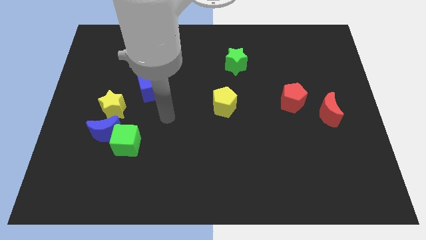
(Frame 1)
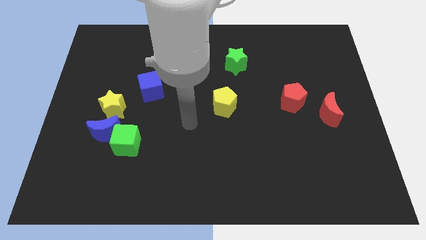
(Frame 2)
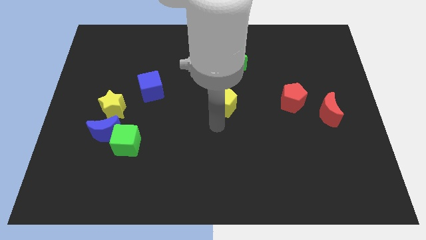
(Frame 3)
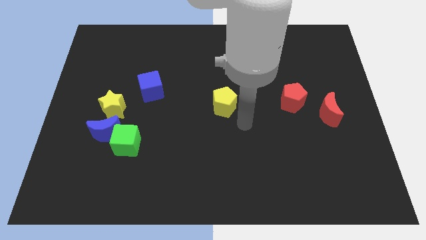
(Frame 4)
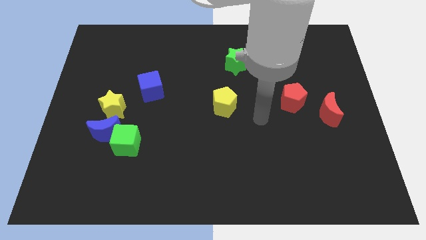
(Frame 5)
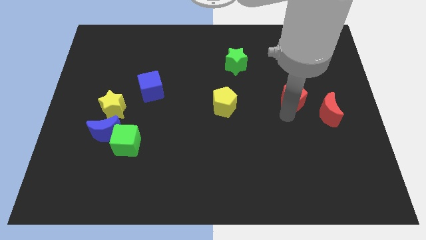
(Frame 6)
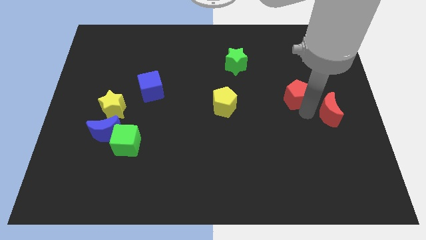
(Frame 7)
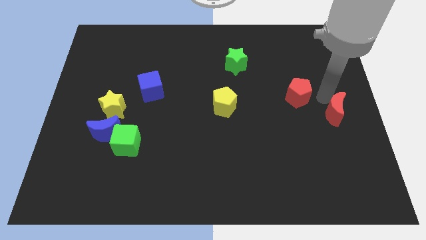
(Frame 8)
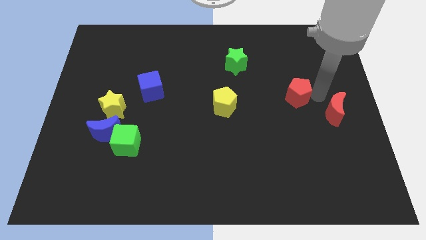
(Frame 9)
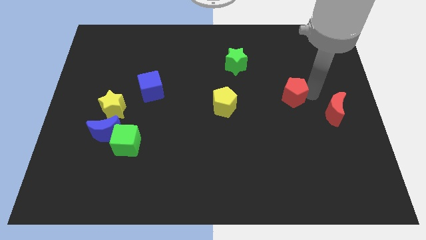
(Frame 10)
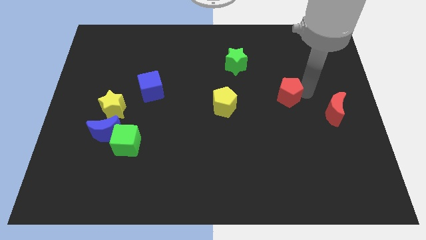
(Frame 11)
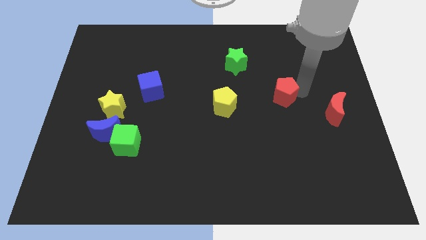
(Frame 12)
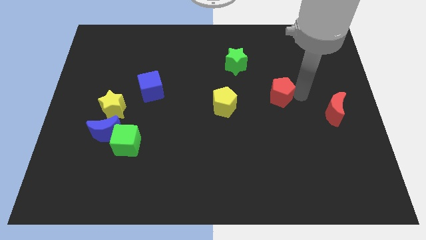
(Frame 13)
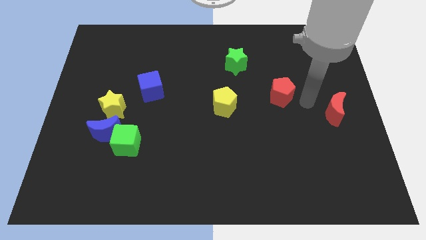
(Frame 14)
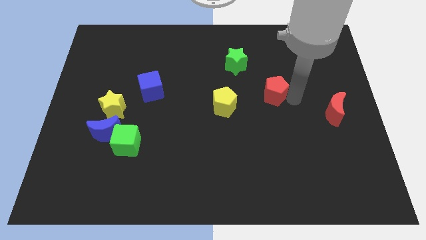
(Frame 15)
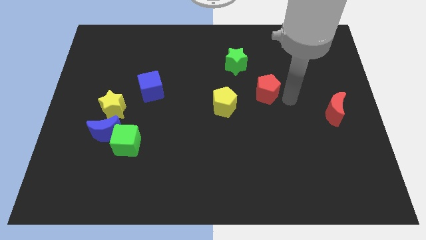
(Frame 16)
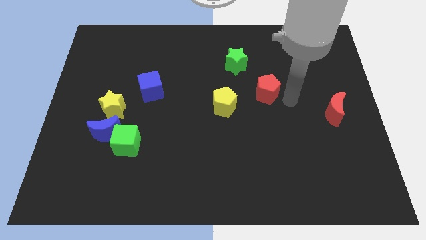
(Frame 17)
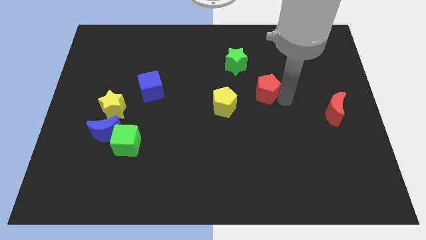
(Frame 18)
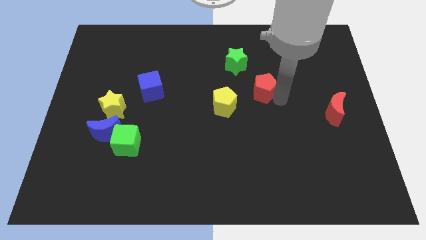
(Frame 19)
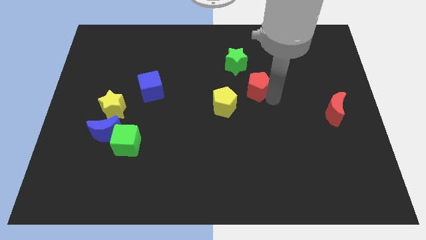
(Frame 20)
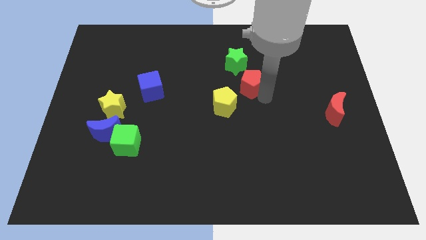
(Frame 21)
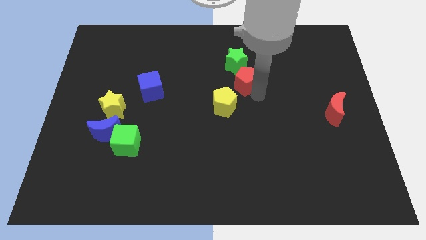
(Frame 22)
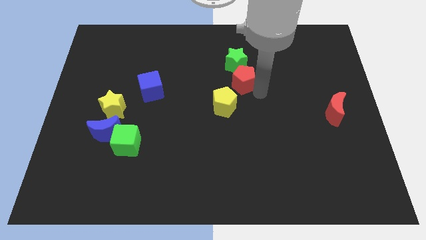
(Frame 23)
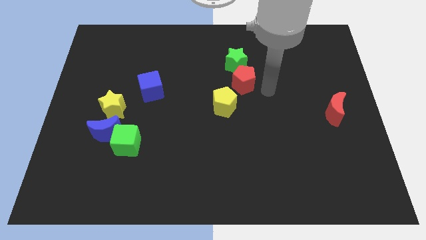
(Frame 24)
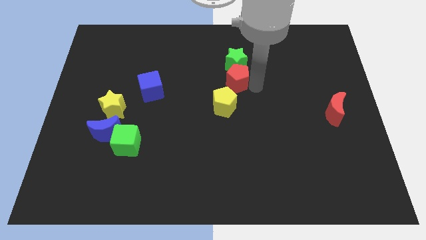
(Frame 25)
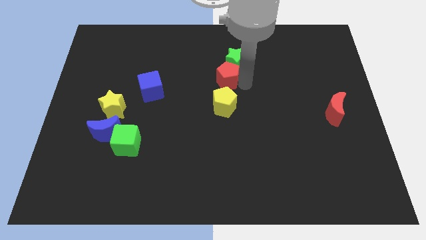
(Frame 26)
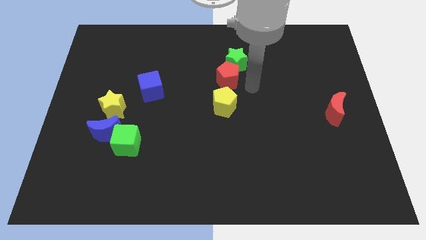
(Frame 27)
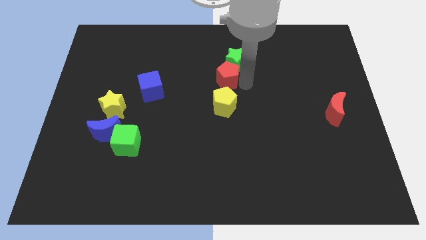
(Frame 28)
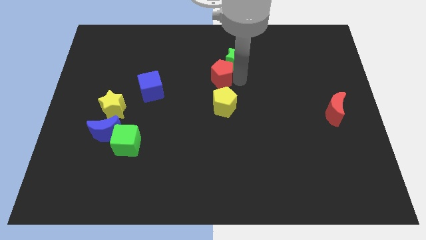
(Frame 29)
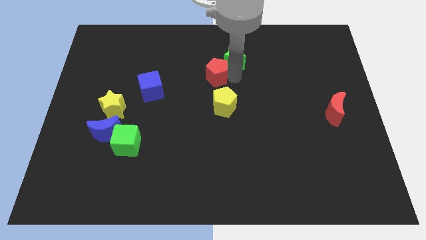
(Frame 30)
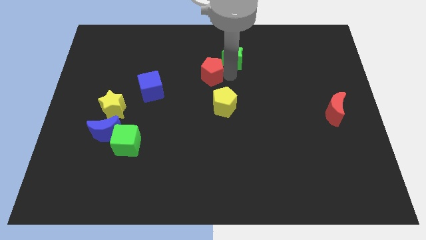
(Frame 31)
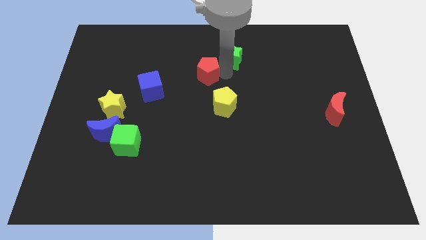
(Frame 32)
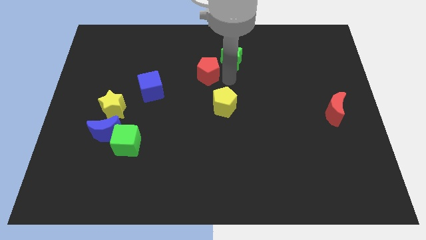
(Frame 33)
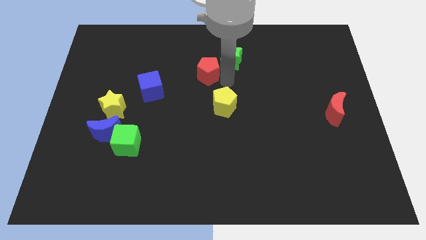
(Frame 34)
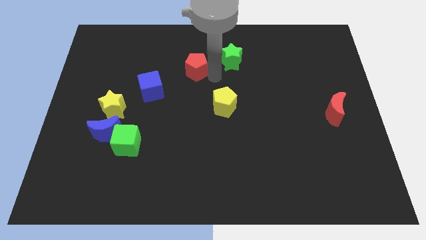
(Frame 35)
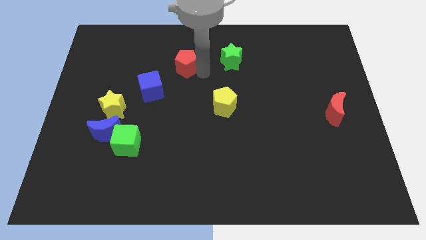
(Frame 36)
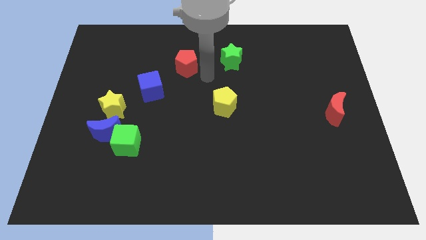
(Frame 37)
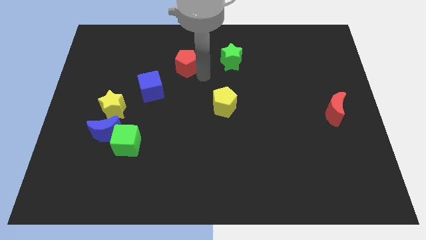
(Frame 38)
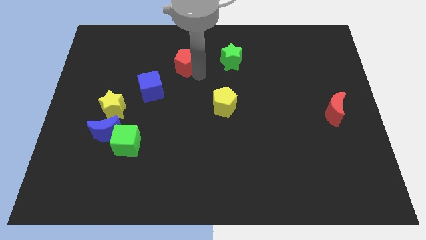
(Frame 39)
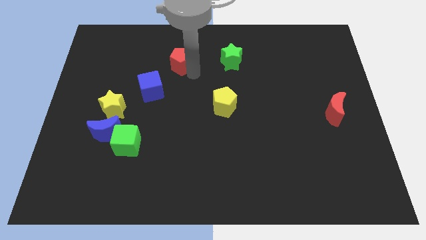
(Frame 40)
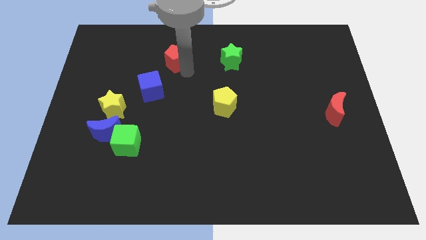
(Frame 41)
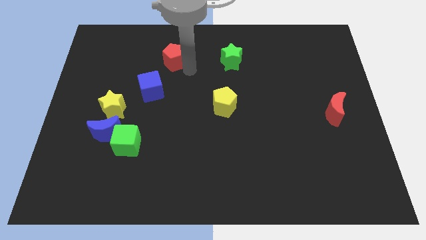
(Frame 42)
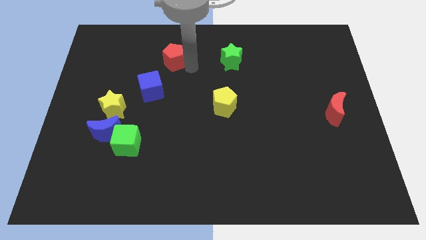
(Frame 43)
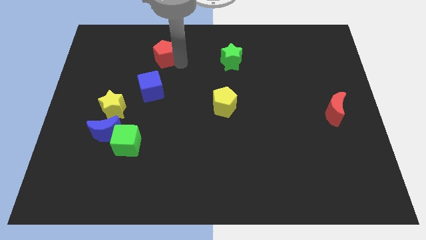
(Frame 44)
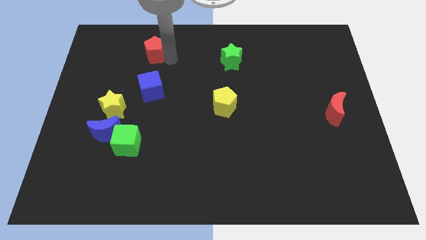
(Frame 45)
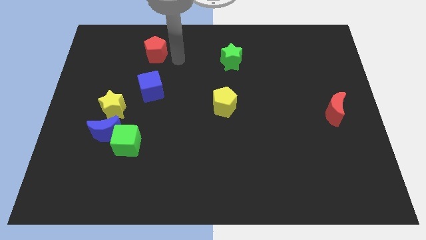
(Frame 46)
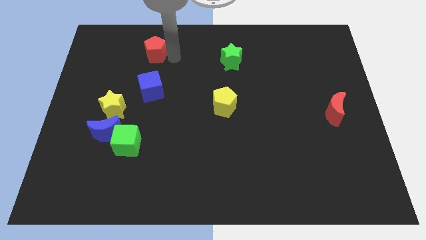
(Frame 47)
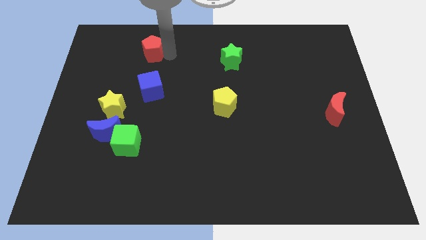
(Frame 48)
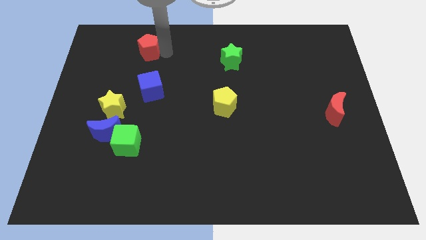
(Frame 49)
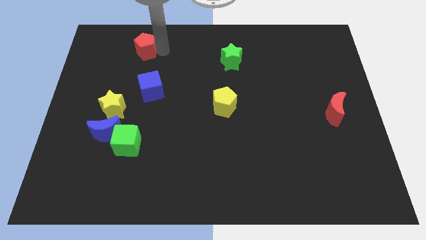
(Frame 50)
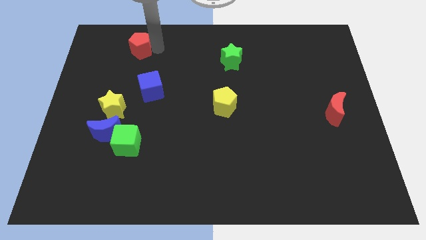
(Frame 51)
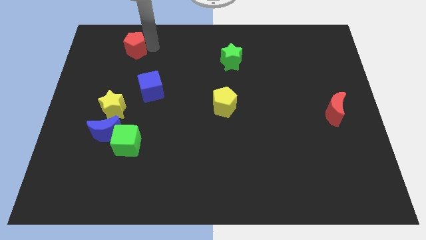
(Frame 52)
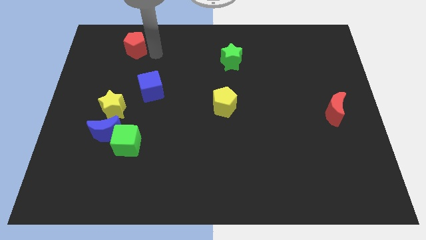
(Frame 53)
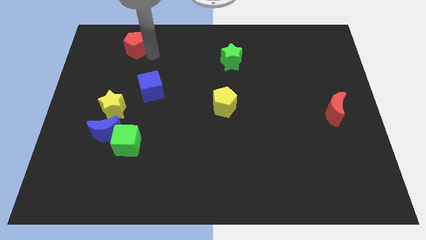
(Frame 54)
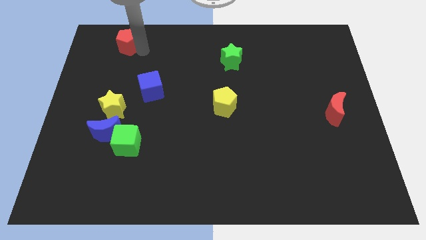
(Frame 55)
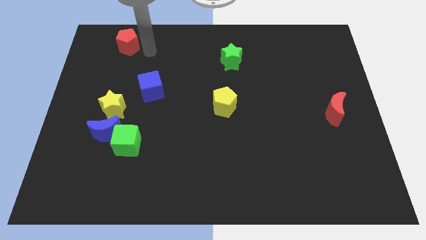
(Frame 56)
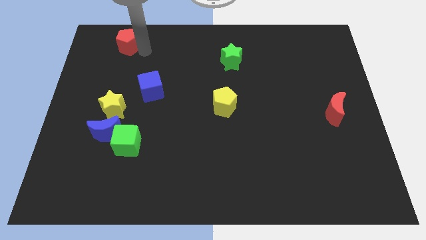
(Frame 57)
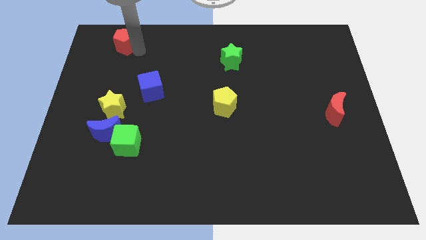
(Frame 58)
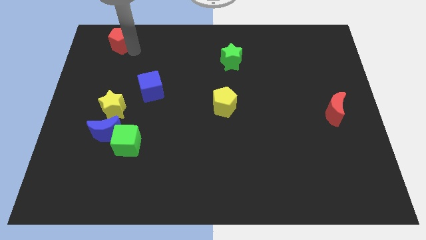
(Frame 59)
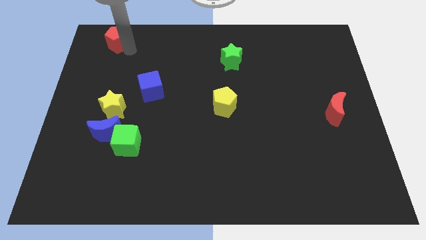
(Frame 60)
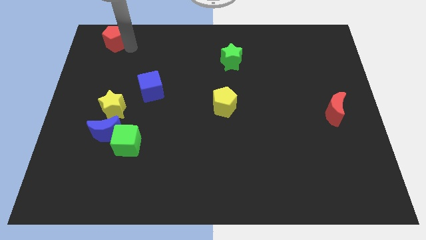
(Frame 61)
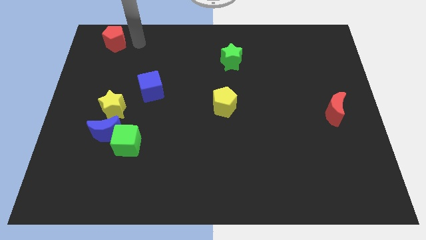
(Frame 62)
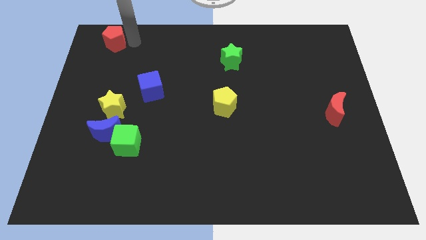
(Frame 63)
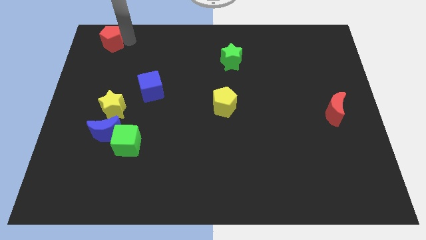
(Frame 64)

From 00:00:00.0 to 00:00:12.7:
push the red pentagon to the top left corner
